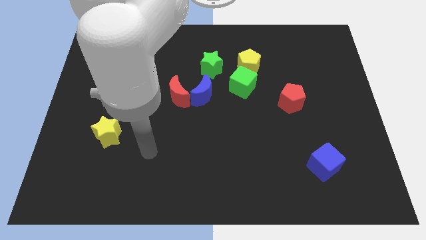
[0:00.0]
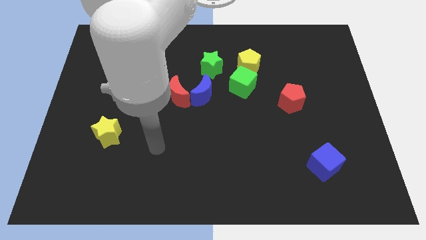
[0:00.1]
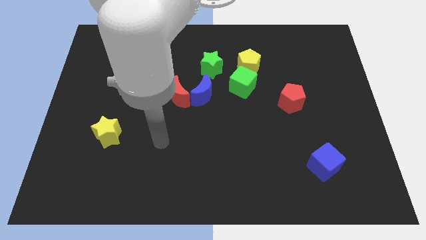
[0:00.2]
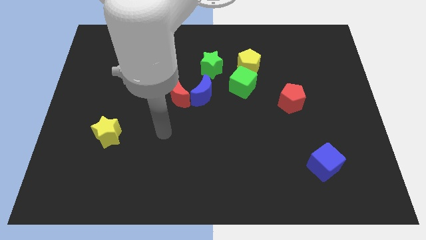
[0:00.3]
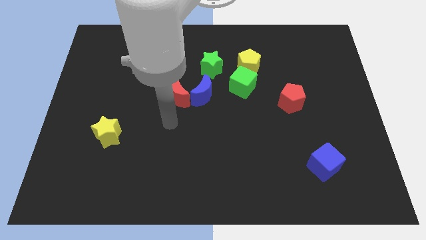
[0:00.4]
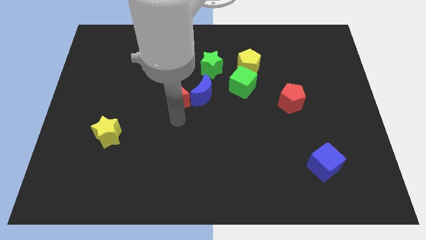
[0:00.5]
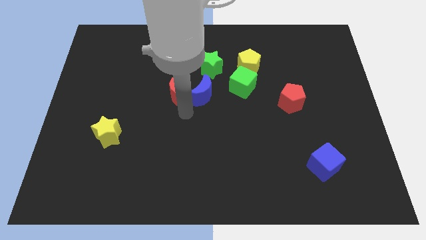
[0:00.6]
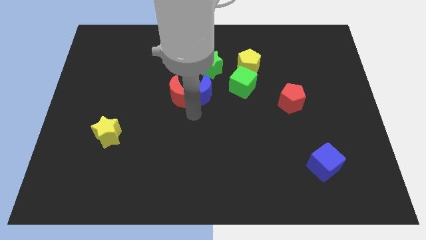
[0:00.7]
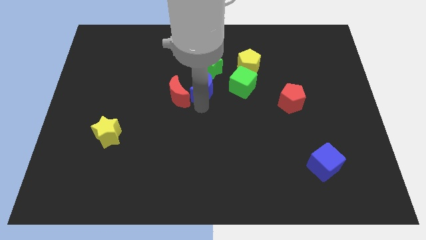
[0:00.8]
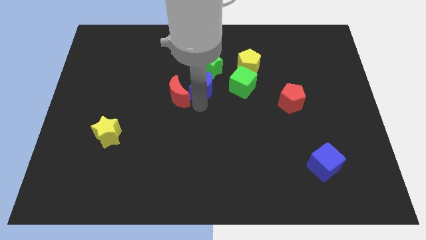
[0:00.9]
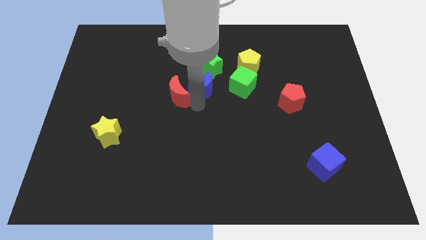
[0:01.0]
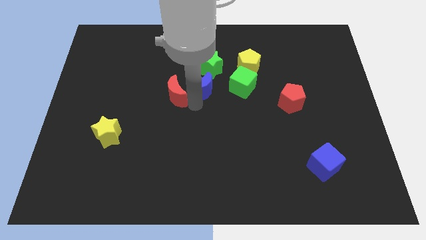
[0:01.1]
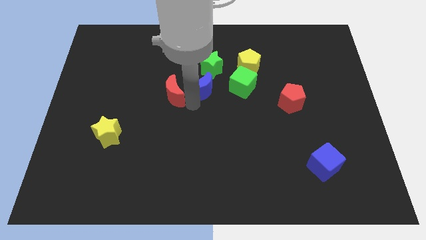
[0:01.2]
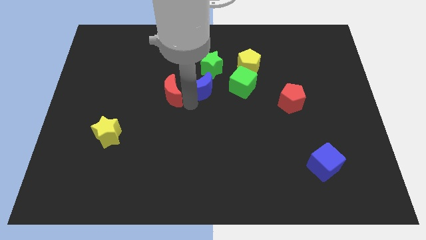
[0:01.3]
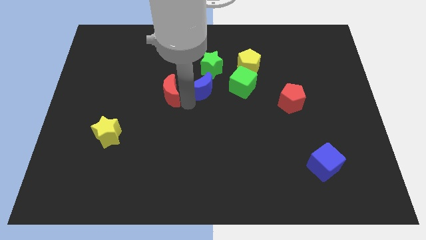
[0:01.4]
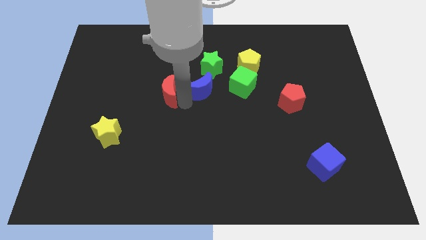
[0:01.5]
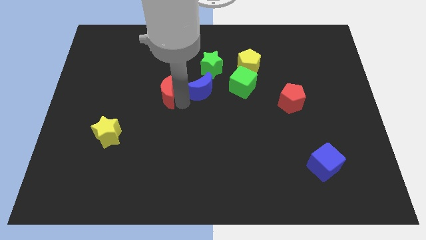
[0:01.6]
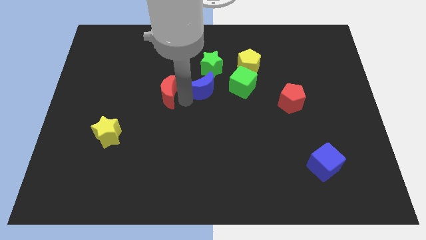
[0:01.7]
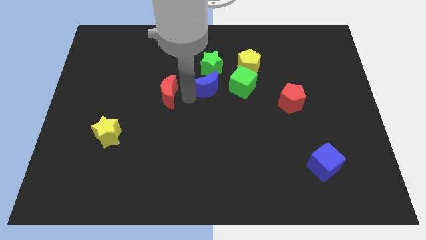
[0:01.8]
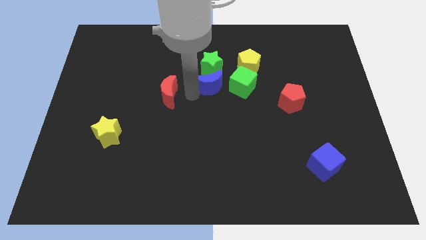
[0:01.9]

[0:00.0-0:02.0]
separate the red moon from the blue moon

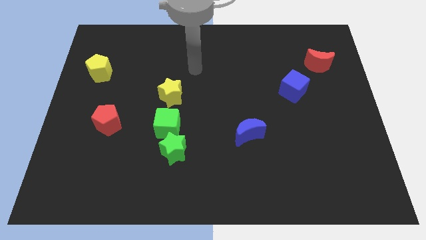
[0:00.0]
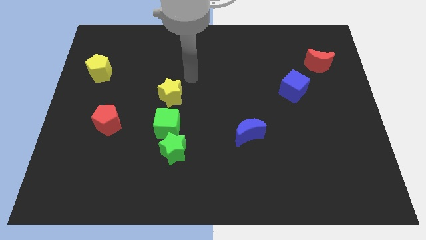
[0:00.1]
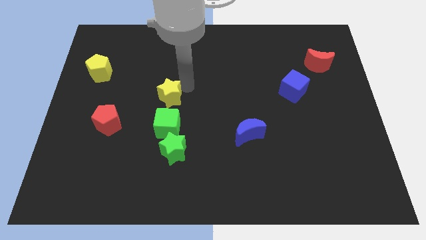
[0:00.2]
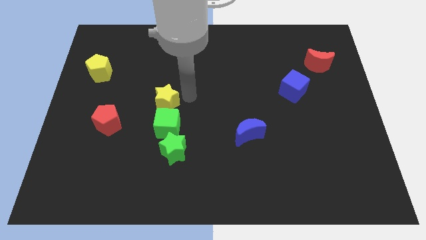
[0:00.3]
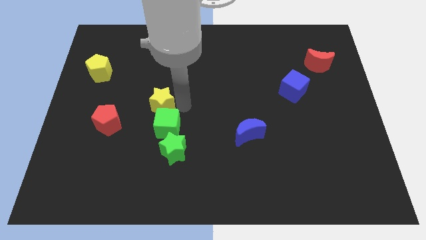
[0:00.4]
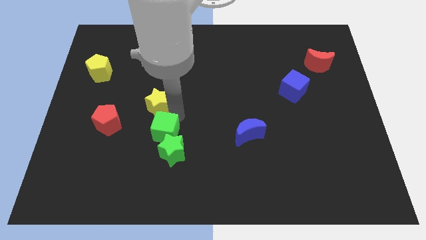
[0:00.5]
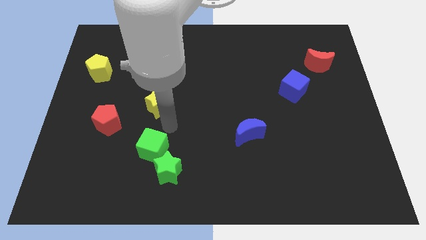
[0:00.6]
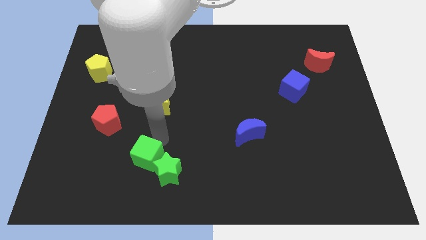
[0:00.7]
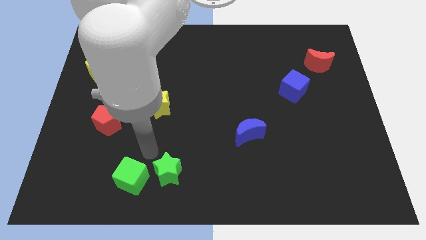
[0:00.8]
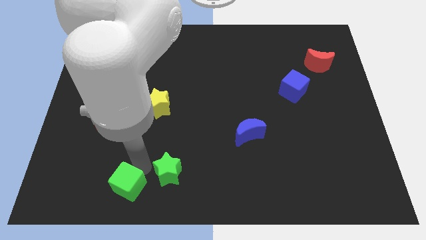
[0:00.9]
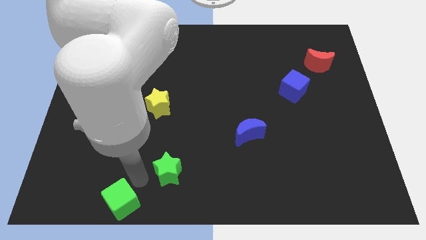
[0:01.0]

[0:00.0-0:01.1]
move the green star away from the green cube

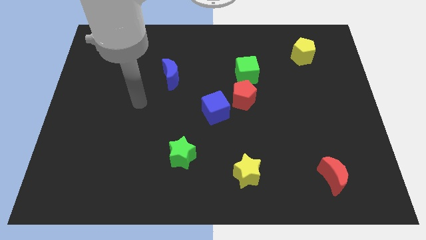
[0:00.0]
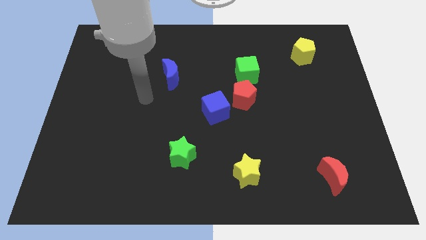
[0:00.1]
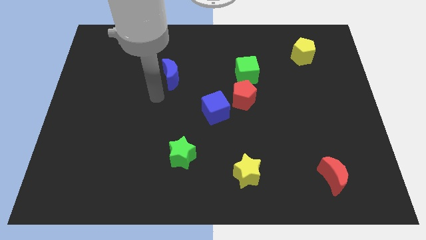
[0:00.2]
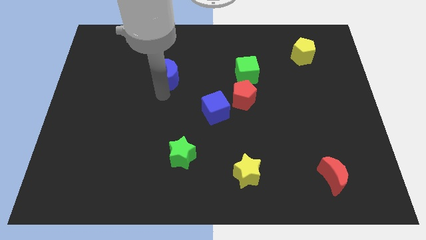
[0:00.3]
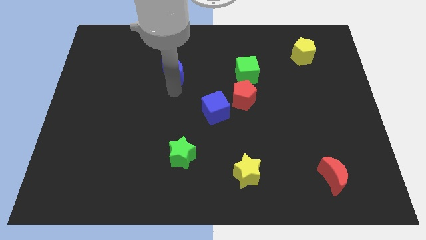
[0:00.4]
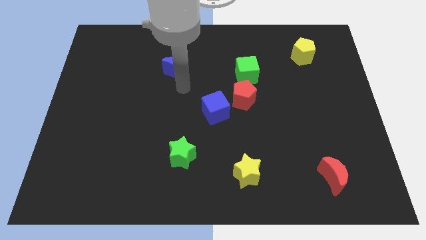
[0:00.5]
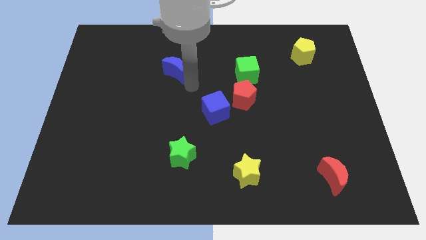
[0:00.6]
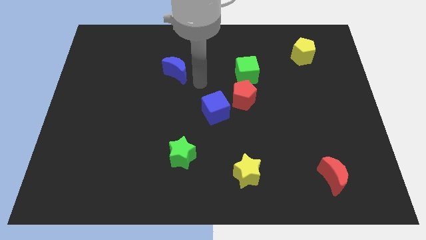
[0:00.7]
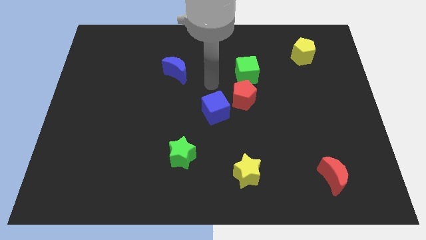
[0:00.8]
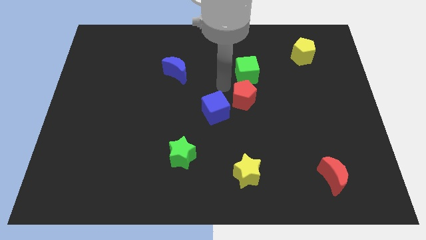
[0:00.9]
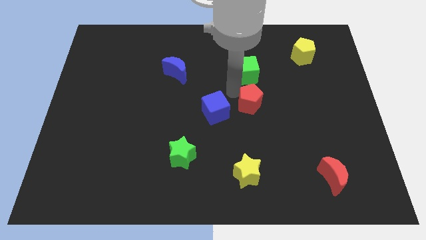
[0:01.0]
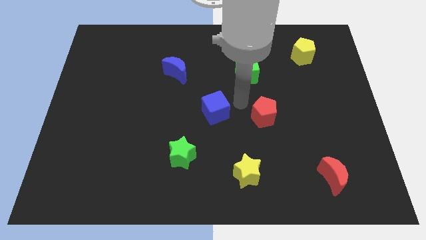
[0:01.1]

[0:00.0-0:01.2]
separate the blue cube from the red pentagon

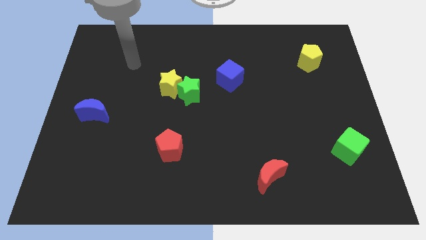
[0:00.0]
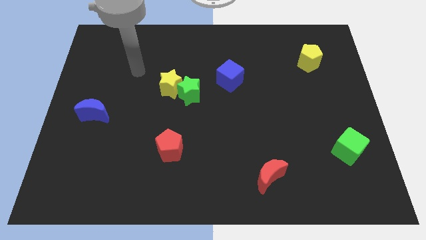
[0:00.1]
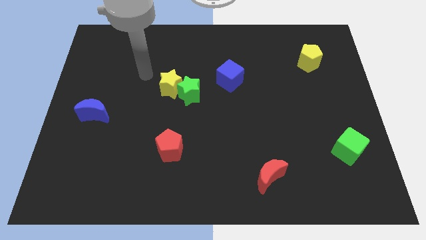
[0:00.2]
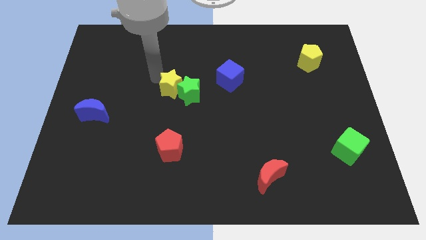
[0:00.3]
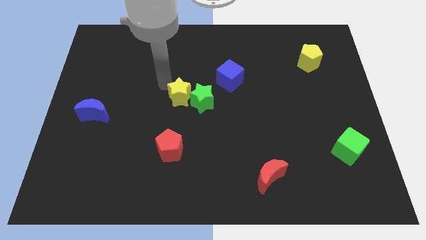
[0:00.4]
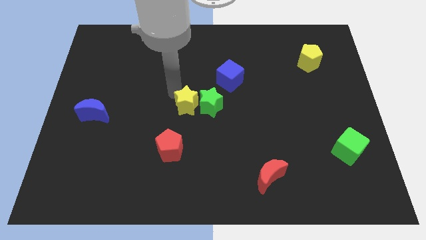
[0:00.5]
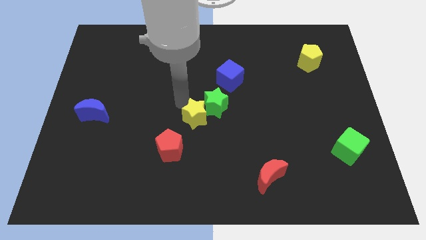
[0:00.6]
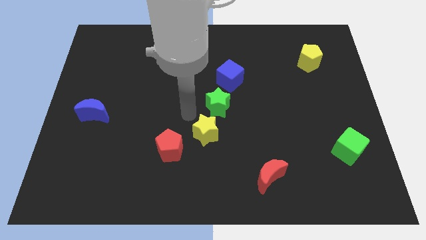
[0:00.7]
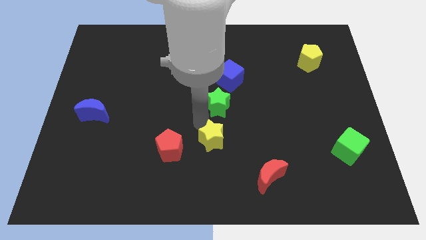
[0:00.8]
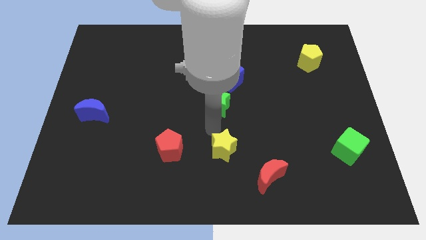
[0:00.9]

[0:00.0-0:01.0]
separate the green star from the yellow star

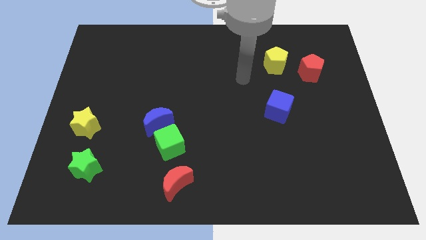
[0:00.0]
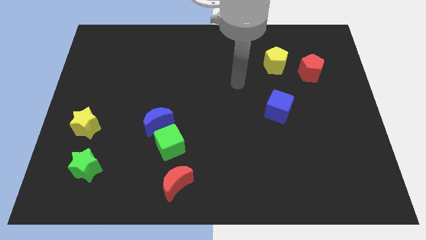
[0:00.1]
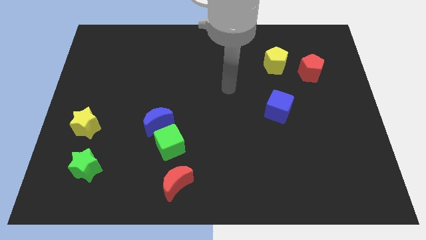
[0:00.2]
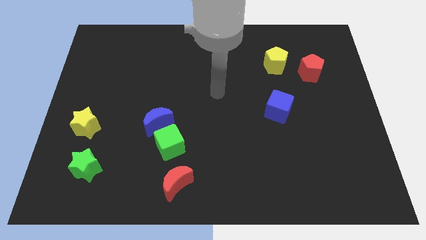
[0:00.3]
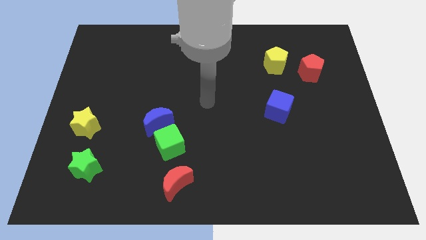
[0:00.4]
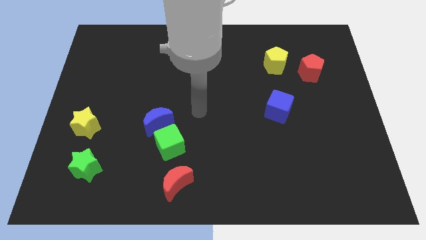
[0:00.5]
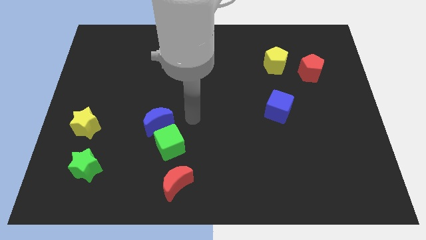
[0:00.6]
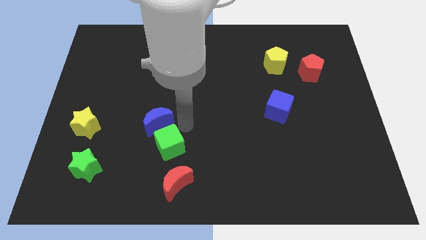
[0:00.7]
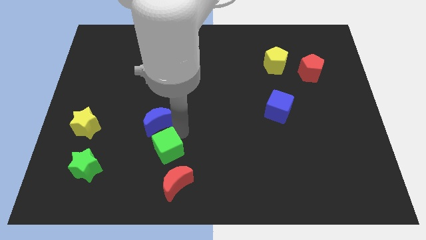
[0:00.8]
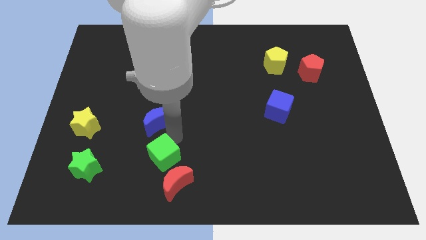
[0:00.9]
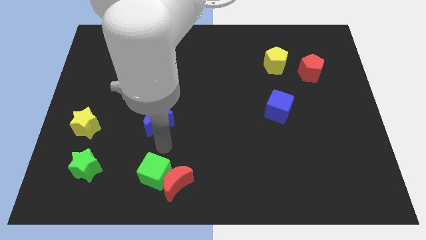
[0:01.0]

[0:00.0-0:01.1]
move the blue moon away from the green cube

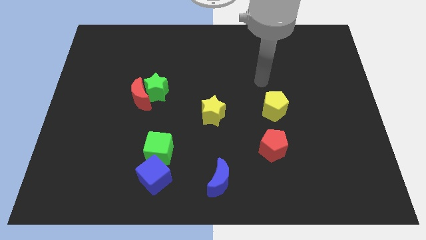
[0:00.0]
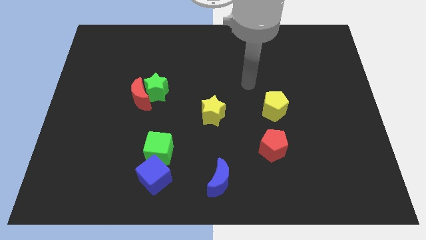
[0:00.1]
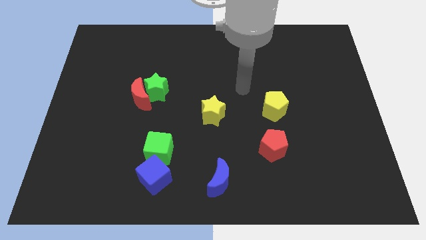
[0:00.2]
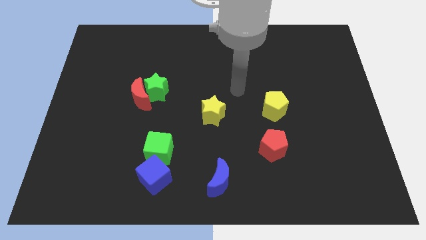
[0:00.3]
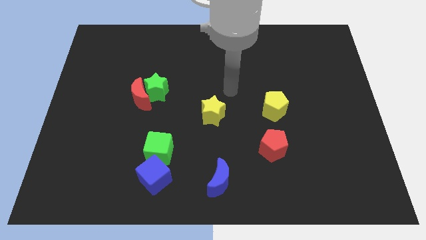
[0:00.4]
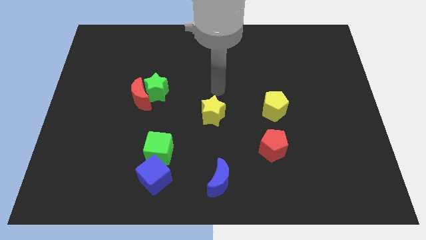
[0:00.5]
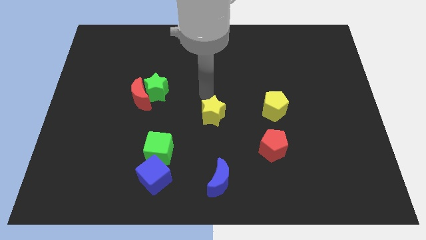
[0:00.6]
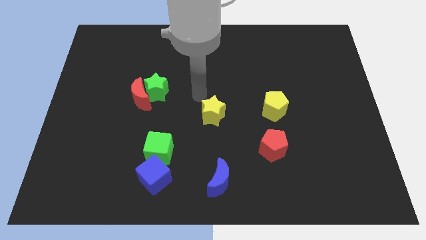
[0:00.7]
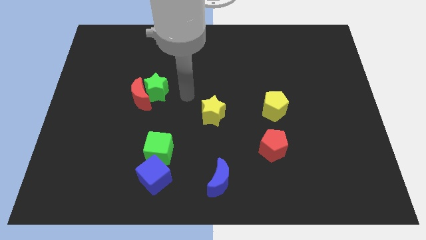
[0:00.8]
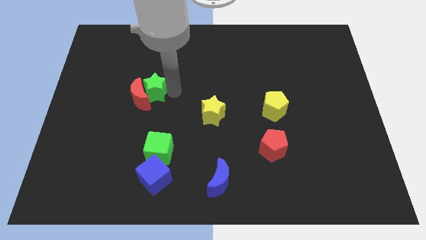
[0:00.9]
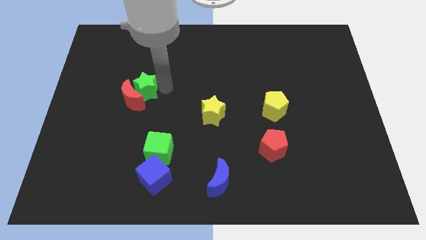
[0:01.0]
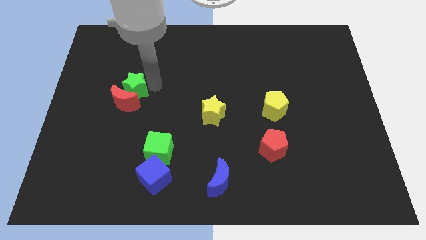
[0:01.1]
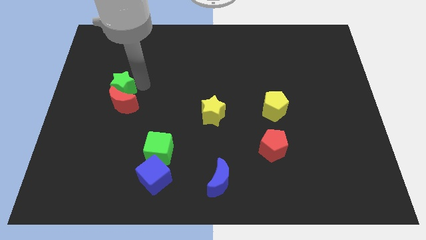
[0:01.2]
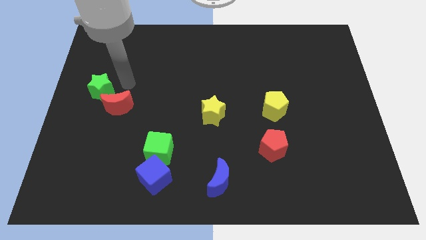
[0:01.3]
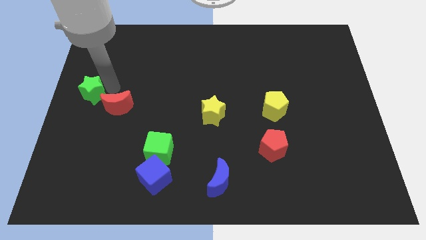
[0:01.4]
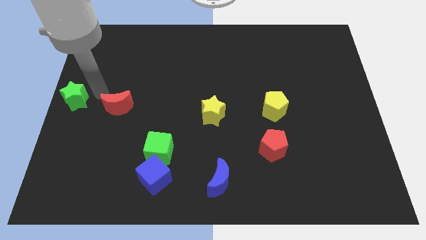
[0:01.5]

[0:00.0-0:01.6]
move the red moon away from the green star

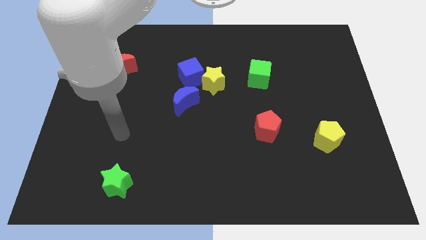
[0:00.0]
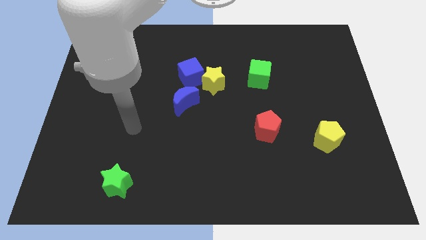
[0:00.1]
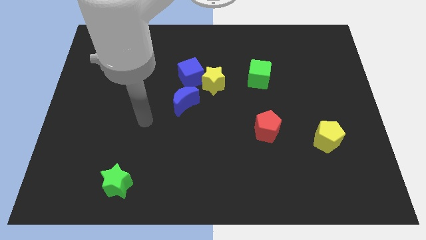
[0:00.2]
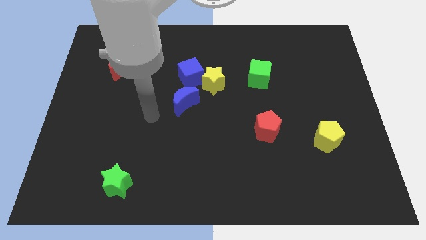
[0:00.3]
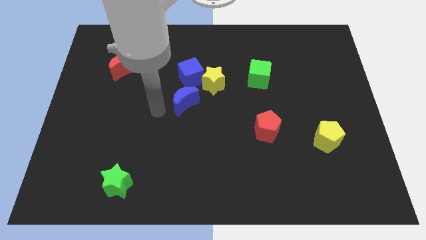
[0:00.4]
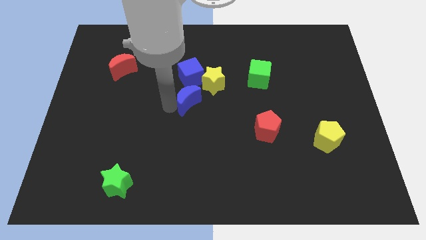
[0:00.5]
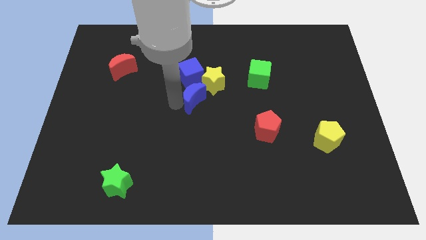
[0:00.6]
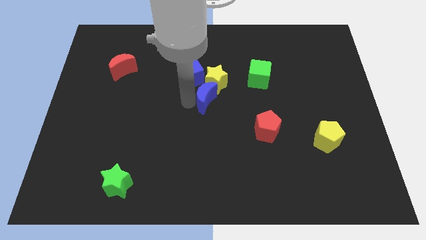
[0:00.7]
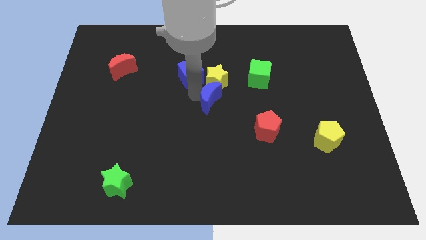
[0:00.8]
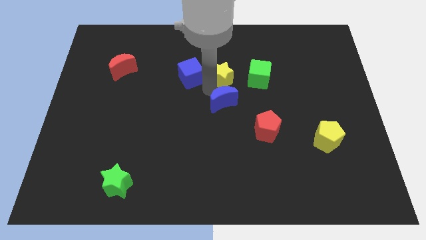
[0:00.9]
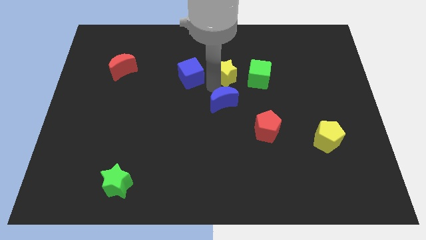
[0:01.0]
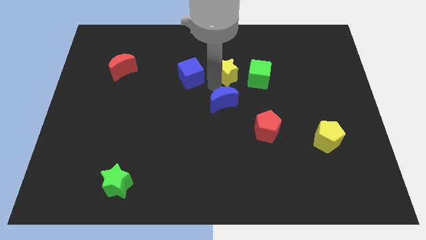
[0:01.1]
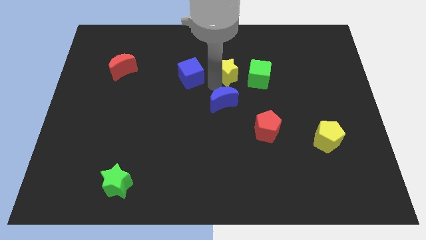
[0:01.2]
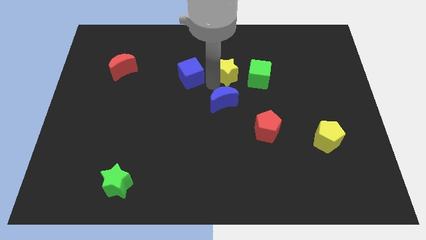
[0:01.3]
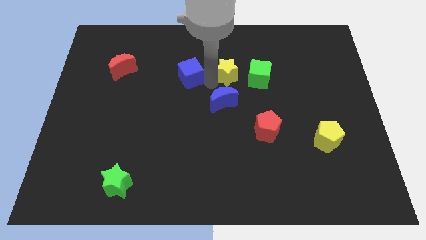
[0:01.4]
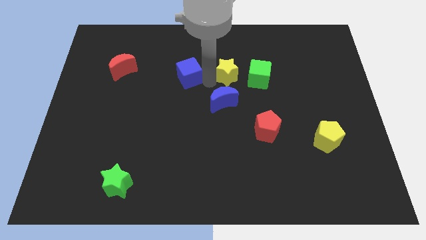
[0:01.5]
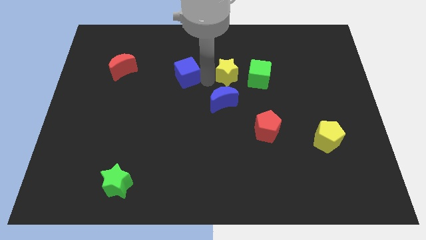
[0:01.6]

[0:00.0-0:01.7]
move the blue cube away from the yellow star and blue moon
